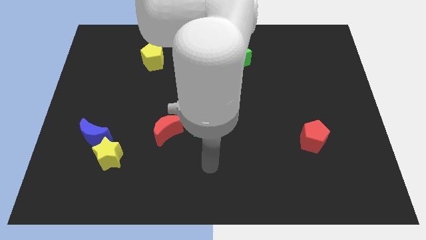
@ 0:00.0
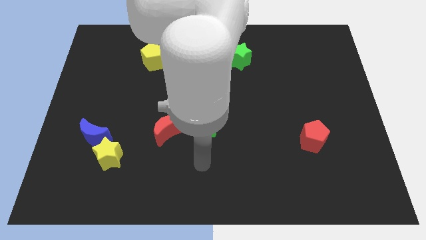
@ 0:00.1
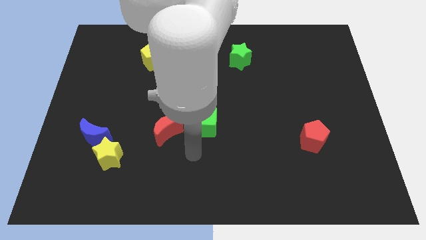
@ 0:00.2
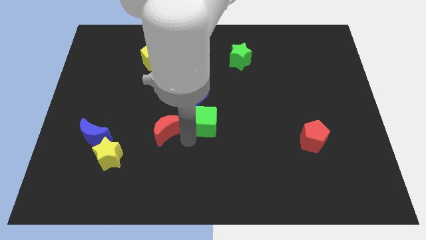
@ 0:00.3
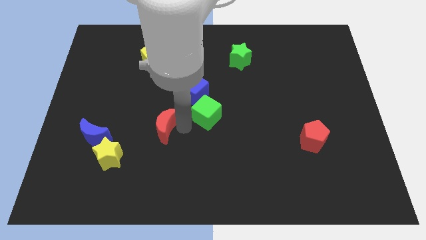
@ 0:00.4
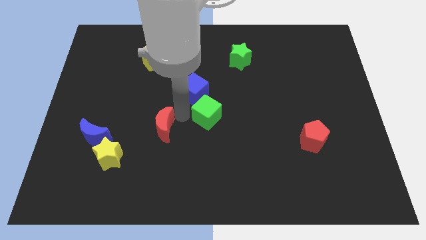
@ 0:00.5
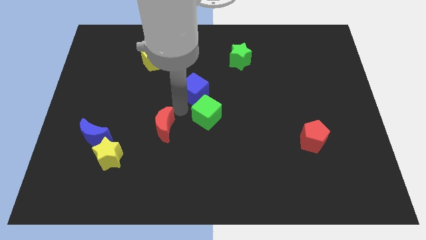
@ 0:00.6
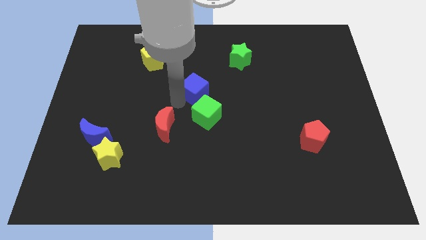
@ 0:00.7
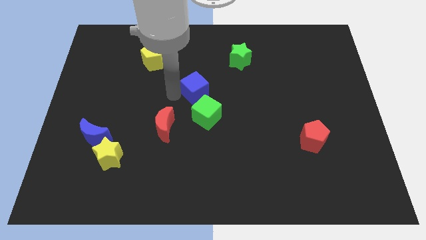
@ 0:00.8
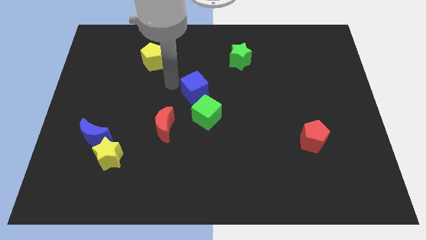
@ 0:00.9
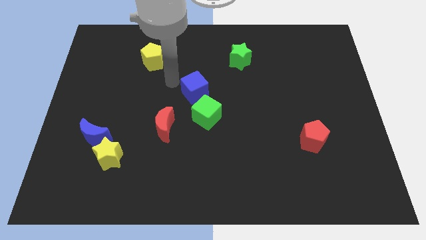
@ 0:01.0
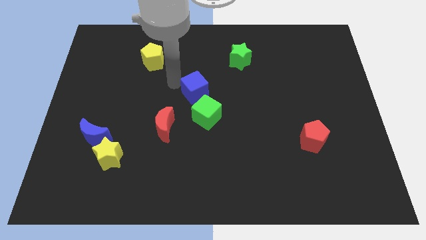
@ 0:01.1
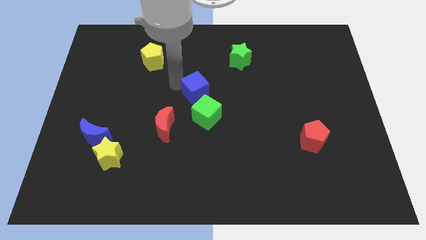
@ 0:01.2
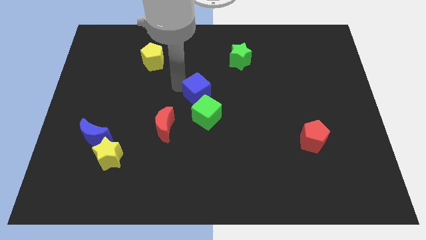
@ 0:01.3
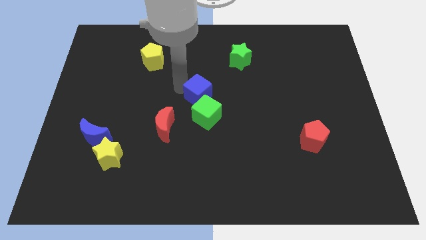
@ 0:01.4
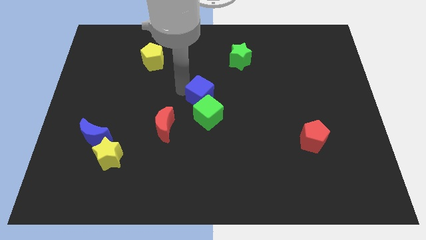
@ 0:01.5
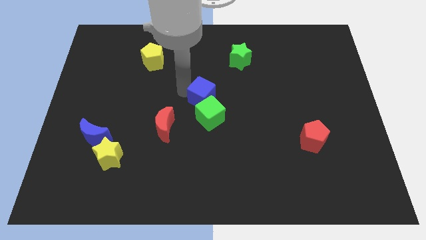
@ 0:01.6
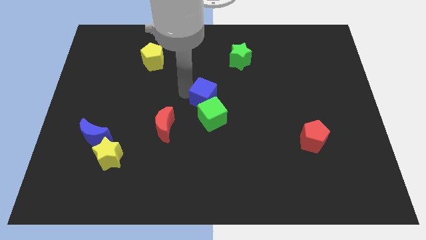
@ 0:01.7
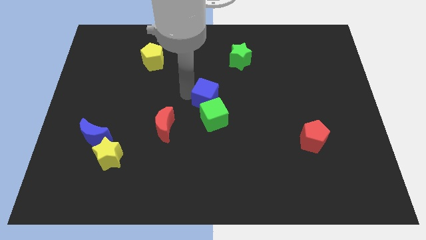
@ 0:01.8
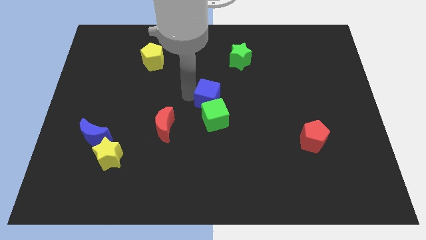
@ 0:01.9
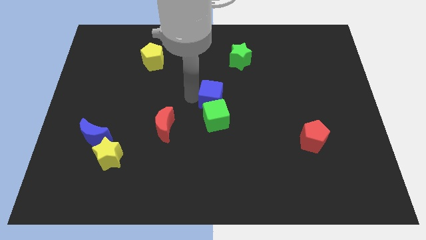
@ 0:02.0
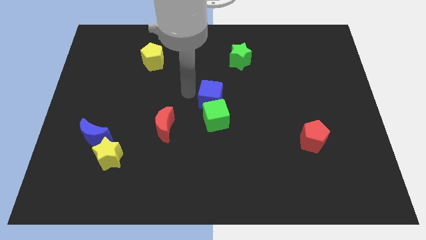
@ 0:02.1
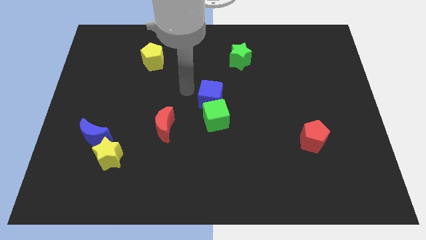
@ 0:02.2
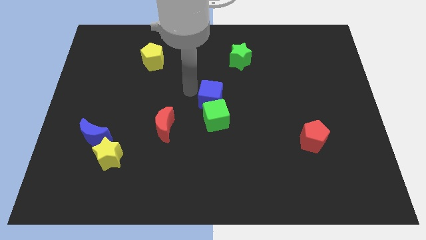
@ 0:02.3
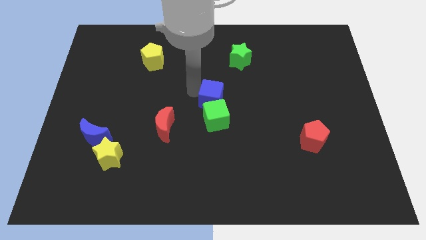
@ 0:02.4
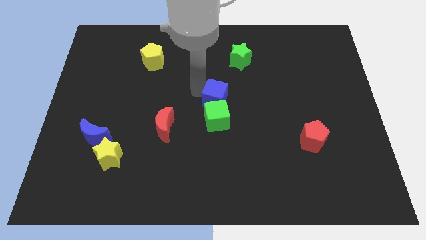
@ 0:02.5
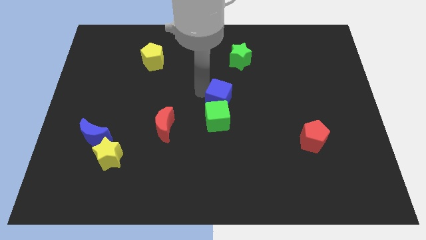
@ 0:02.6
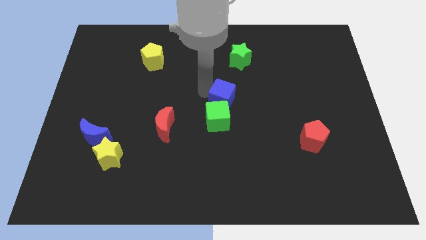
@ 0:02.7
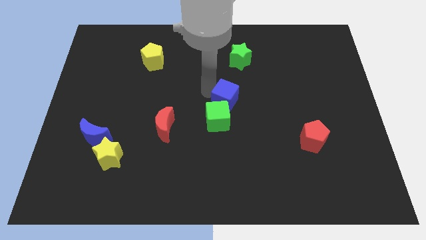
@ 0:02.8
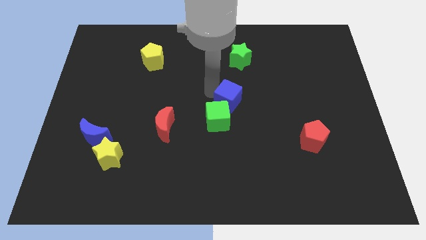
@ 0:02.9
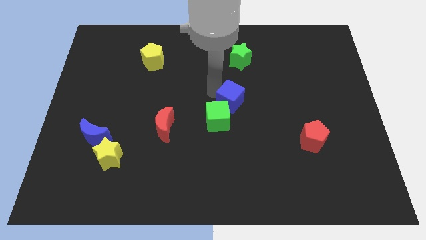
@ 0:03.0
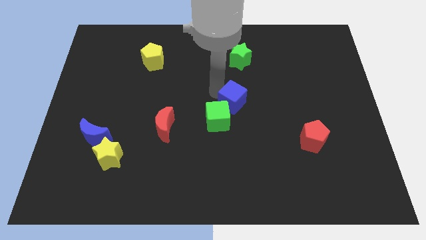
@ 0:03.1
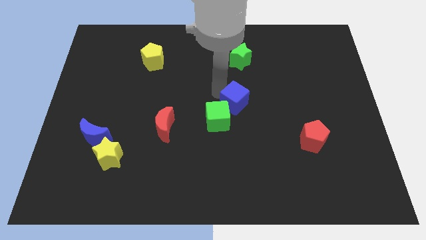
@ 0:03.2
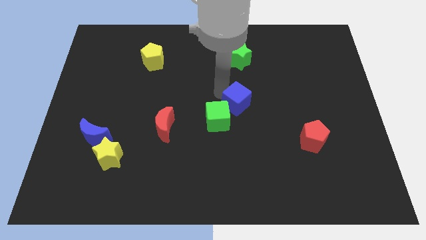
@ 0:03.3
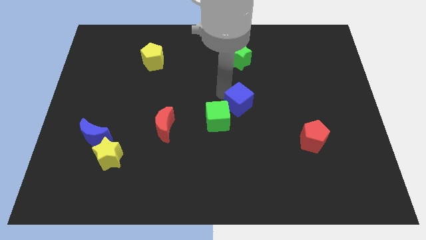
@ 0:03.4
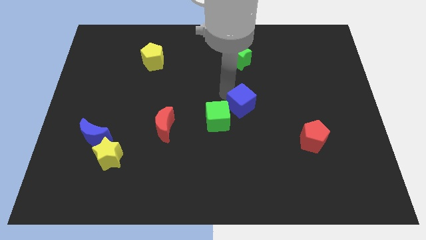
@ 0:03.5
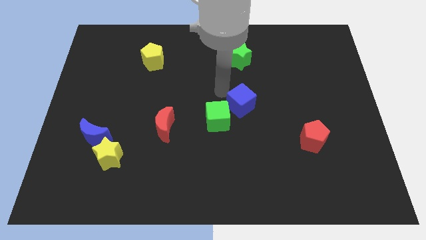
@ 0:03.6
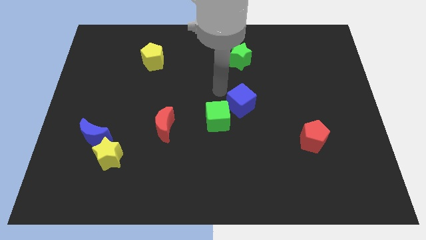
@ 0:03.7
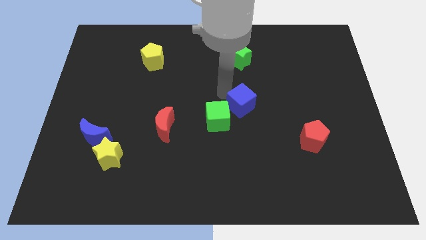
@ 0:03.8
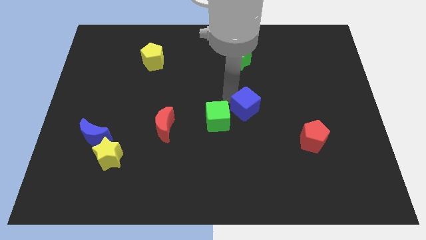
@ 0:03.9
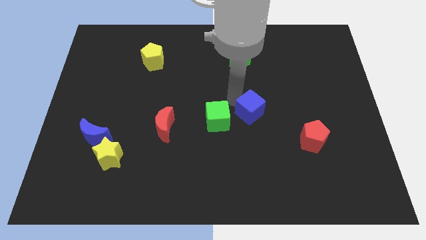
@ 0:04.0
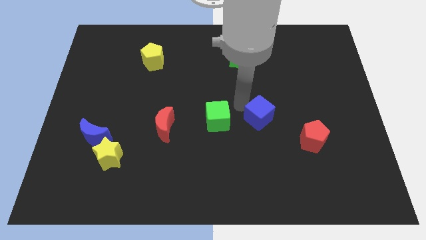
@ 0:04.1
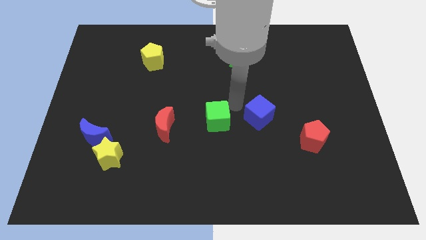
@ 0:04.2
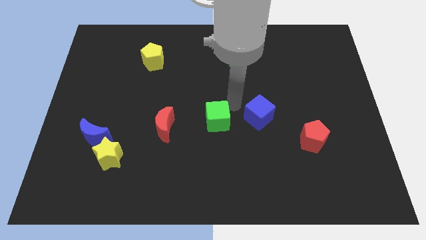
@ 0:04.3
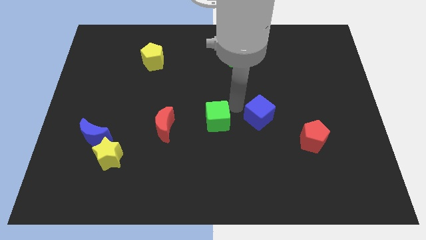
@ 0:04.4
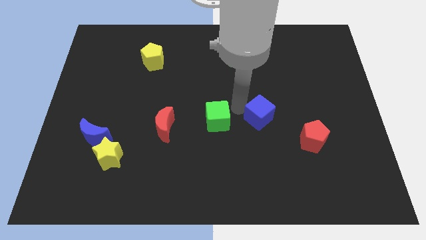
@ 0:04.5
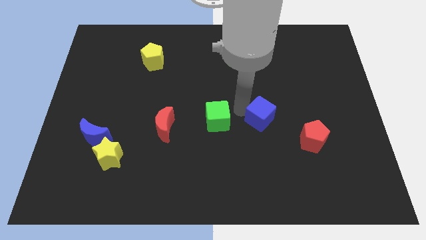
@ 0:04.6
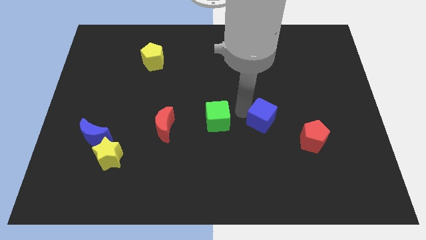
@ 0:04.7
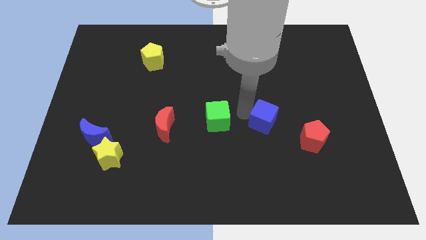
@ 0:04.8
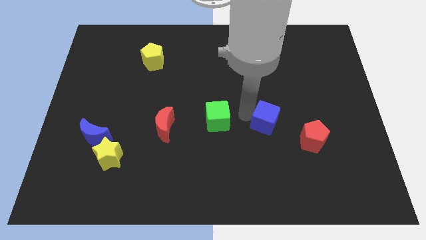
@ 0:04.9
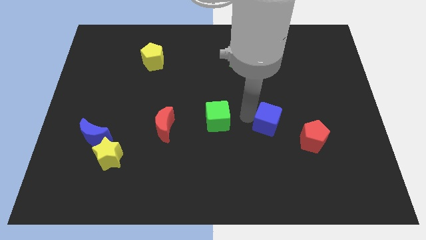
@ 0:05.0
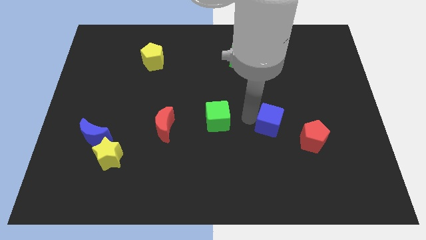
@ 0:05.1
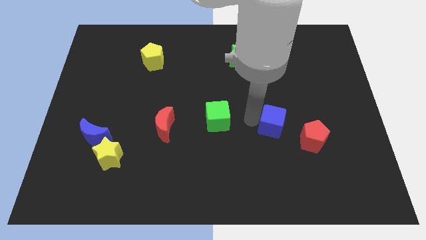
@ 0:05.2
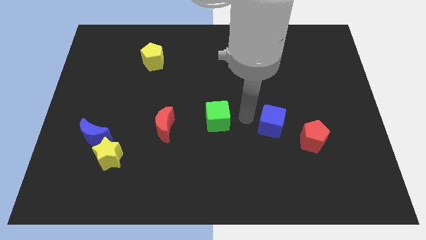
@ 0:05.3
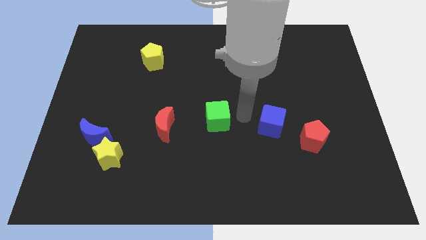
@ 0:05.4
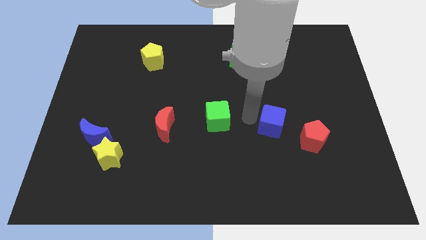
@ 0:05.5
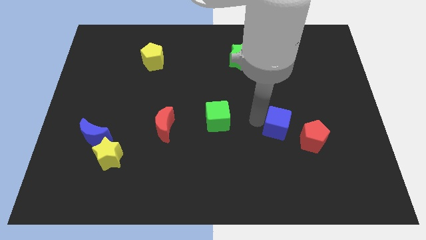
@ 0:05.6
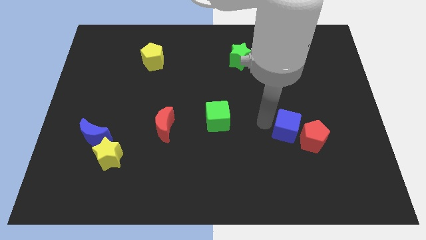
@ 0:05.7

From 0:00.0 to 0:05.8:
push the blue cube next to the red pentagon
